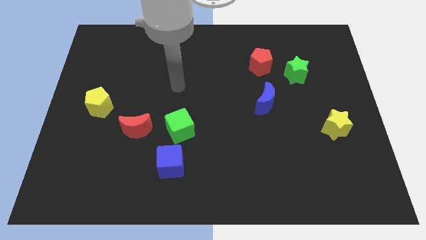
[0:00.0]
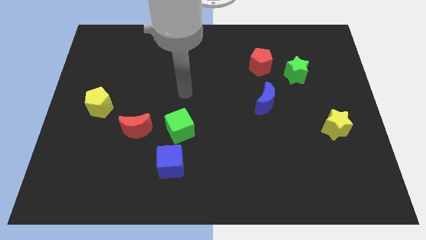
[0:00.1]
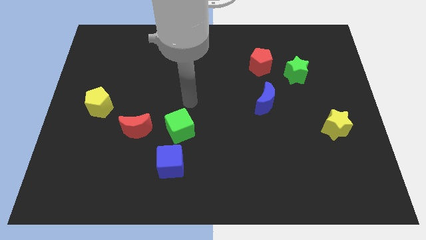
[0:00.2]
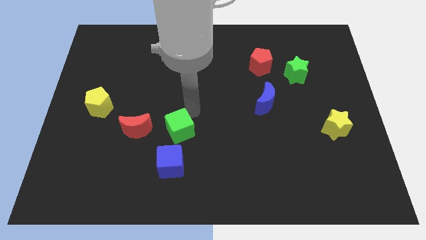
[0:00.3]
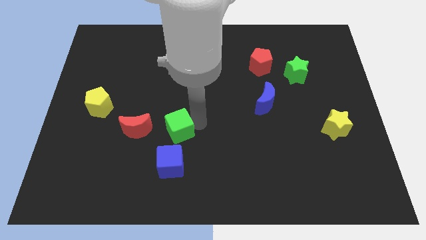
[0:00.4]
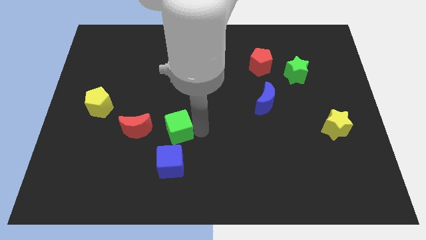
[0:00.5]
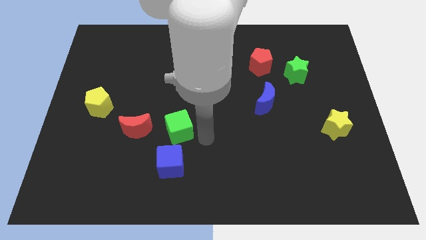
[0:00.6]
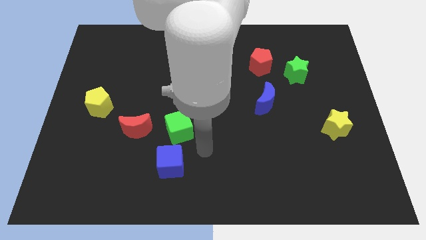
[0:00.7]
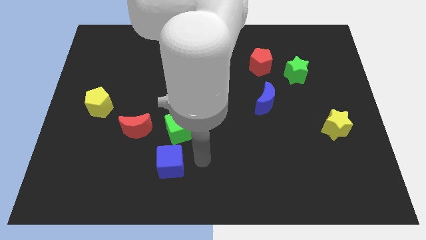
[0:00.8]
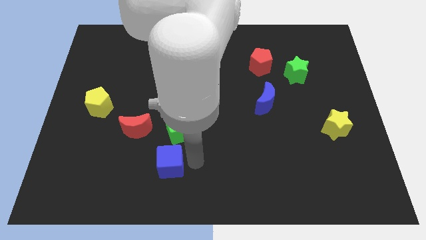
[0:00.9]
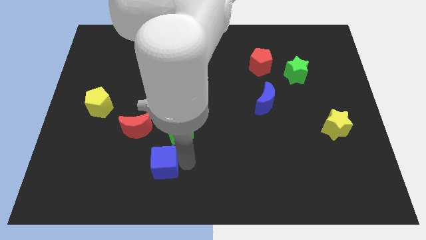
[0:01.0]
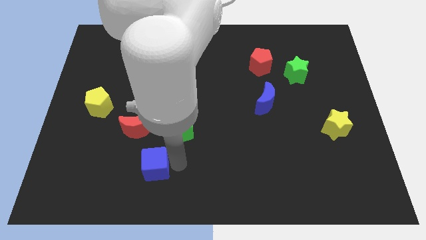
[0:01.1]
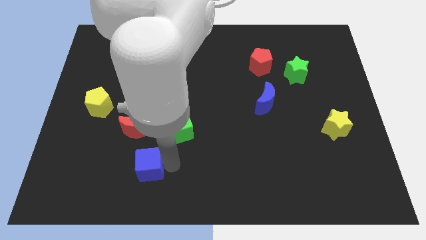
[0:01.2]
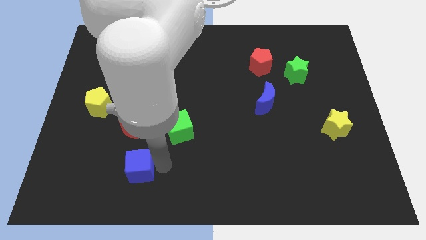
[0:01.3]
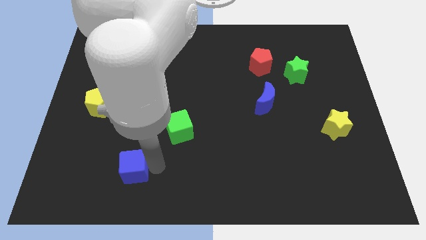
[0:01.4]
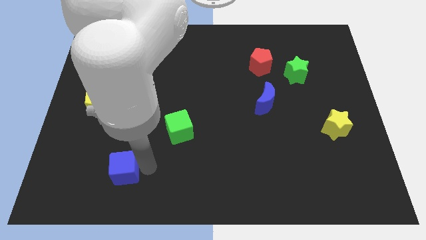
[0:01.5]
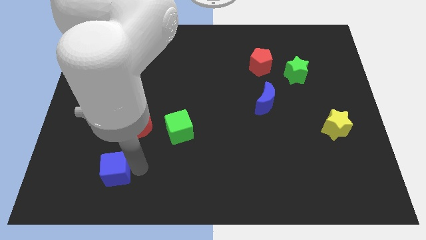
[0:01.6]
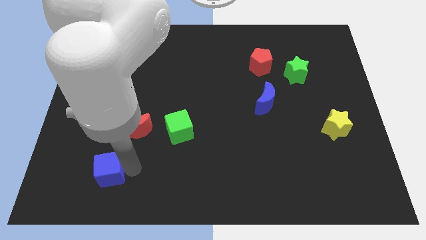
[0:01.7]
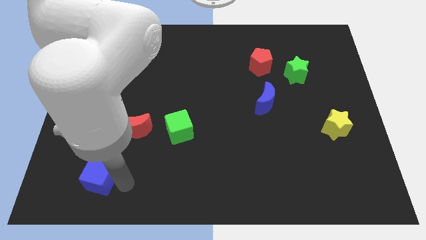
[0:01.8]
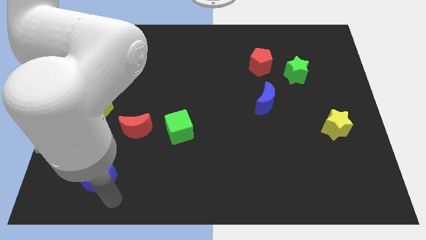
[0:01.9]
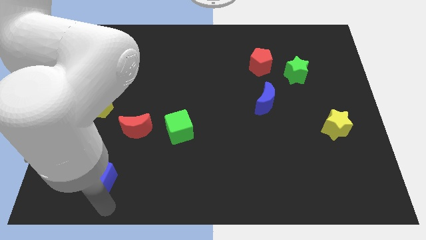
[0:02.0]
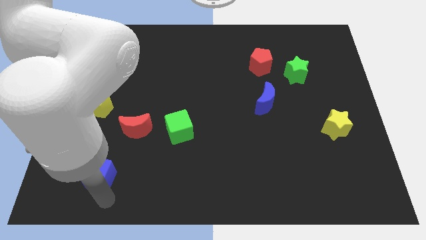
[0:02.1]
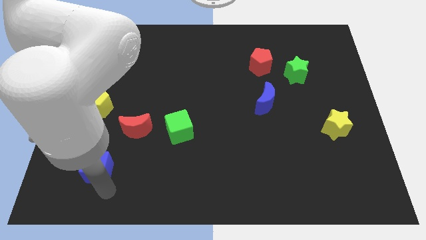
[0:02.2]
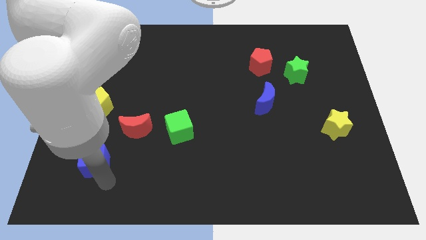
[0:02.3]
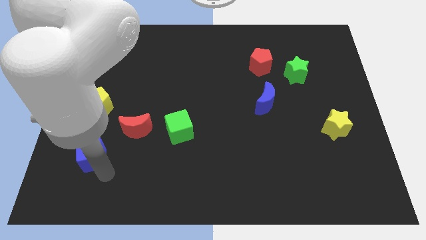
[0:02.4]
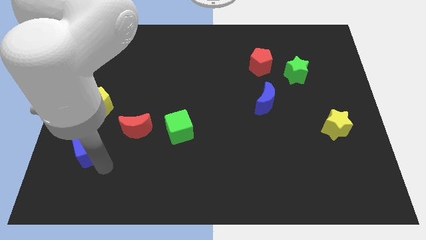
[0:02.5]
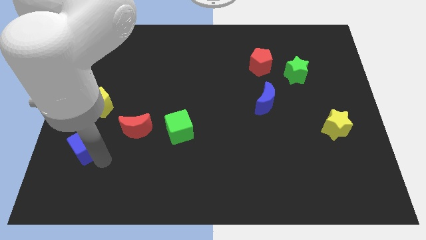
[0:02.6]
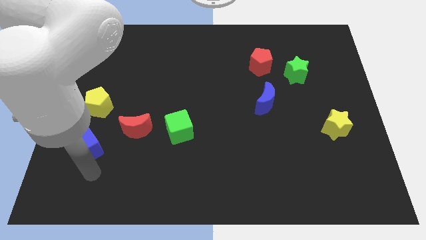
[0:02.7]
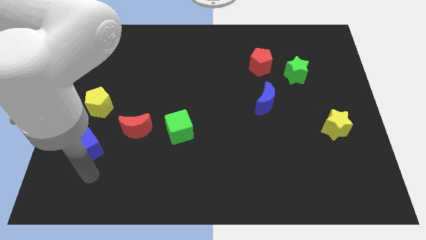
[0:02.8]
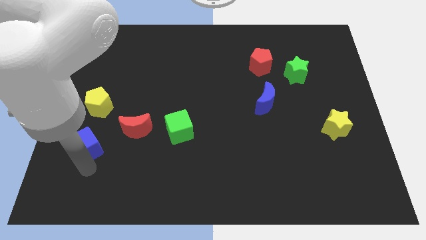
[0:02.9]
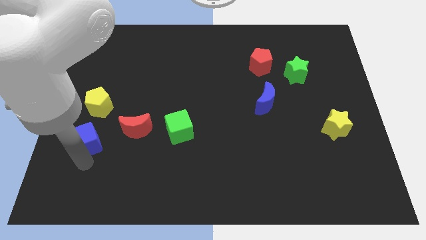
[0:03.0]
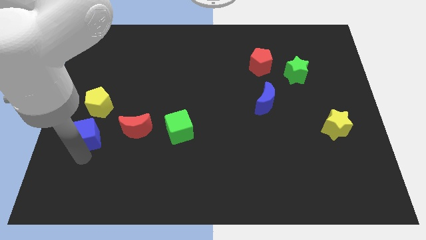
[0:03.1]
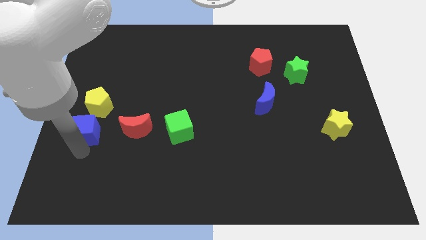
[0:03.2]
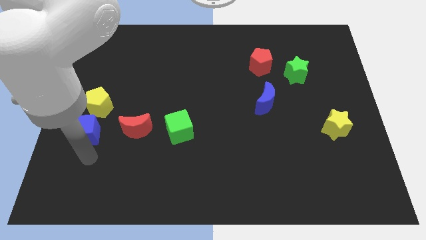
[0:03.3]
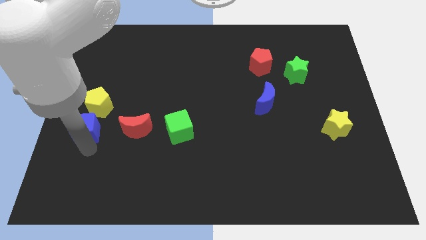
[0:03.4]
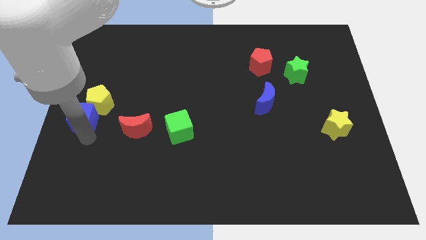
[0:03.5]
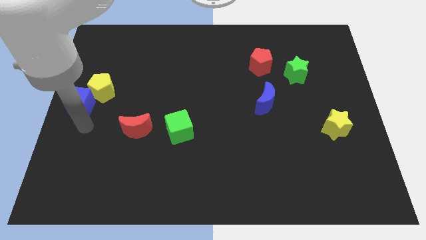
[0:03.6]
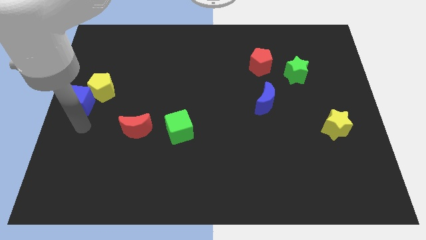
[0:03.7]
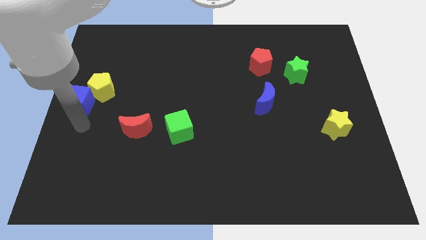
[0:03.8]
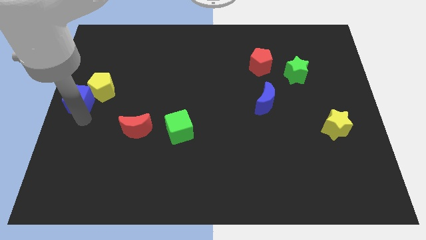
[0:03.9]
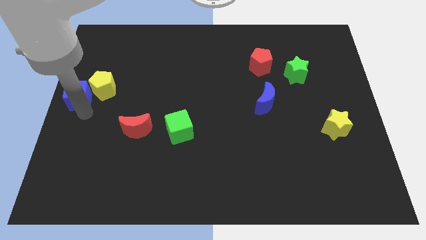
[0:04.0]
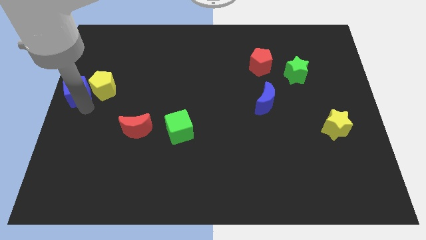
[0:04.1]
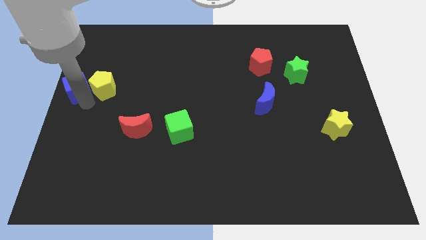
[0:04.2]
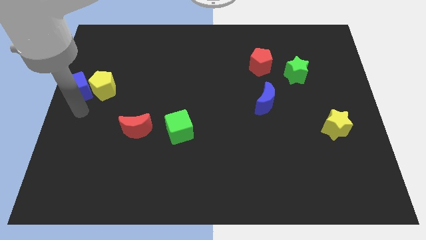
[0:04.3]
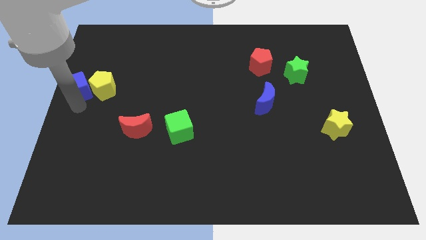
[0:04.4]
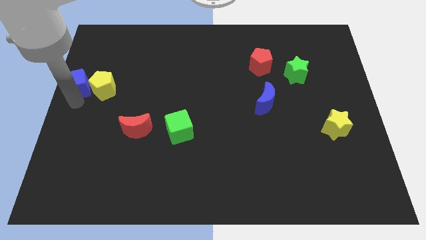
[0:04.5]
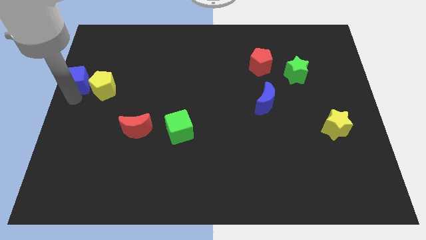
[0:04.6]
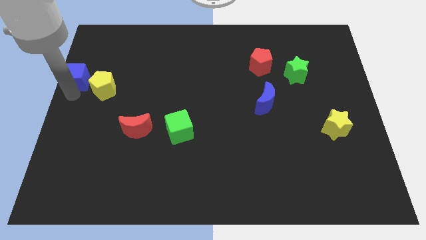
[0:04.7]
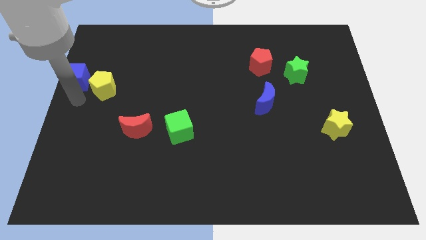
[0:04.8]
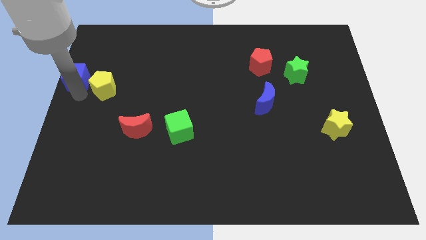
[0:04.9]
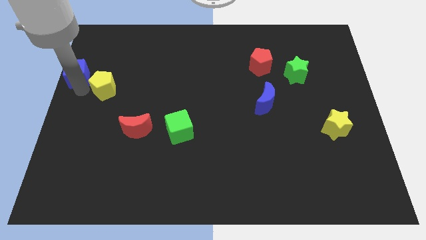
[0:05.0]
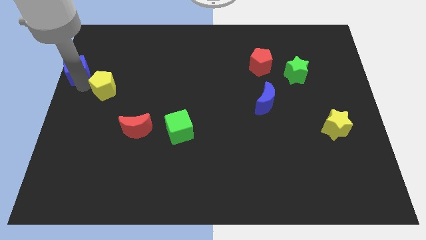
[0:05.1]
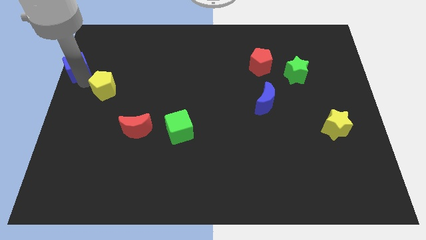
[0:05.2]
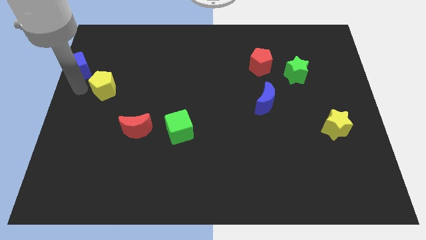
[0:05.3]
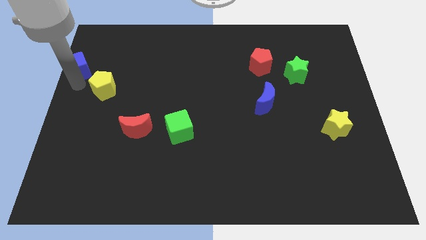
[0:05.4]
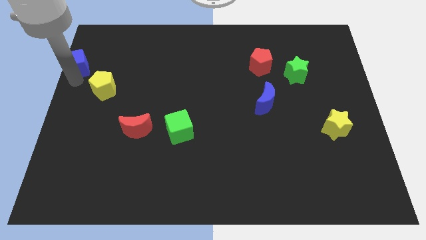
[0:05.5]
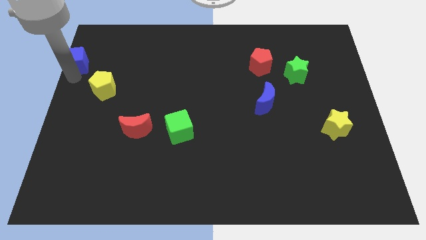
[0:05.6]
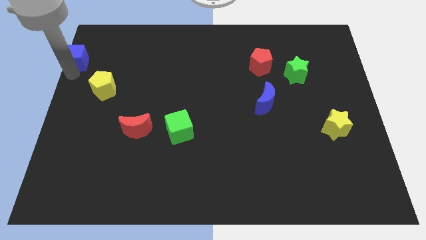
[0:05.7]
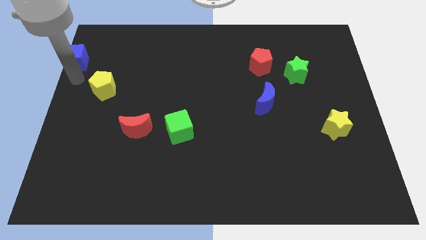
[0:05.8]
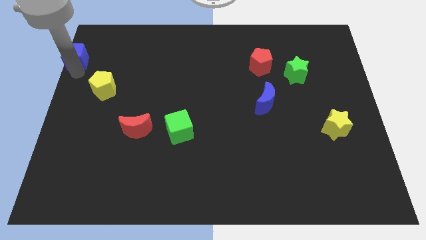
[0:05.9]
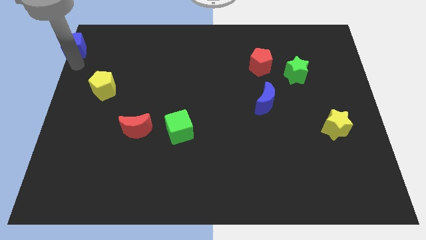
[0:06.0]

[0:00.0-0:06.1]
slide the blue cube to the top left of the board

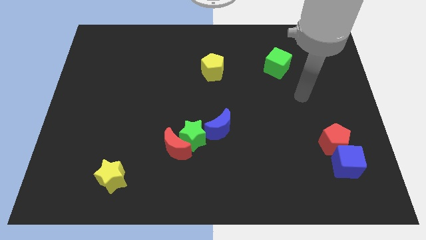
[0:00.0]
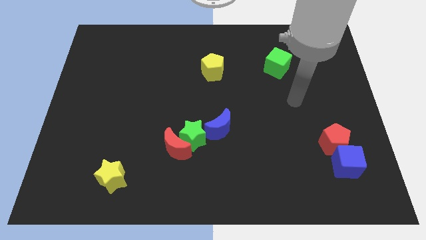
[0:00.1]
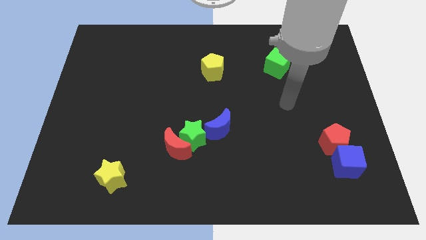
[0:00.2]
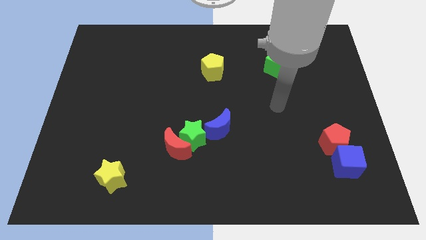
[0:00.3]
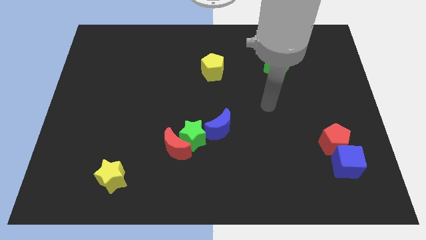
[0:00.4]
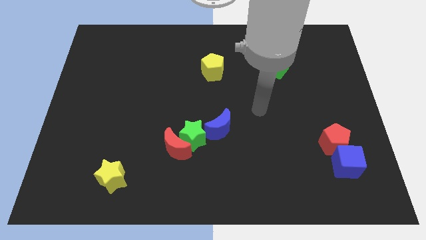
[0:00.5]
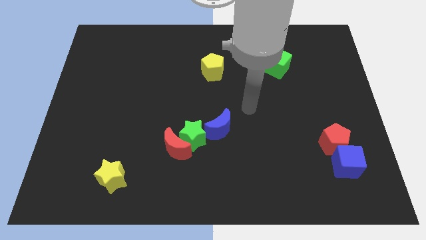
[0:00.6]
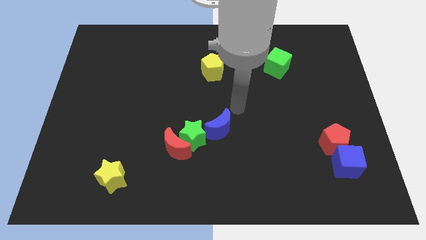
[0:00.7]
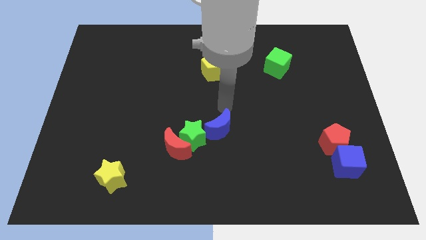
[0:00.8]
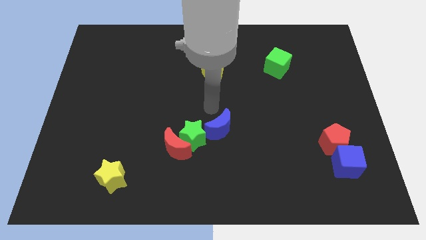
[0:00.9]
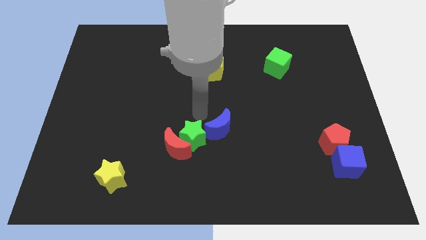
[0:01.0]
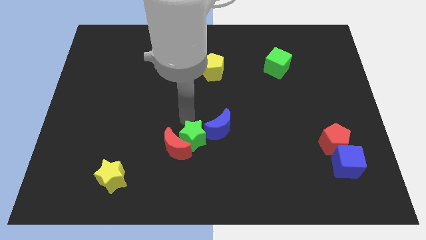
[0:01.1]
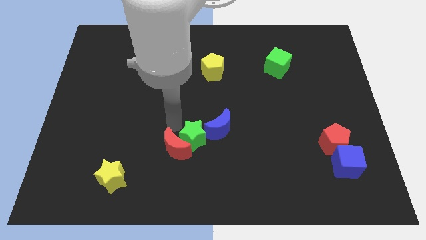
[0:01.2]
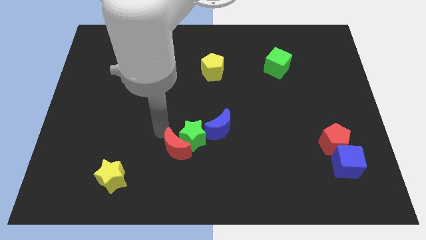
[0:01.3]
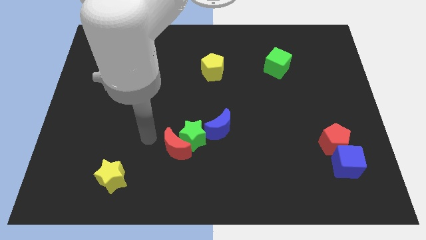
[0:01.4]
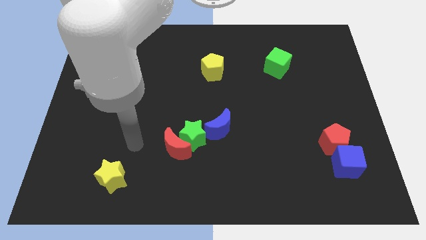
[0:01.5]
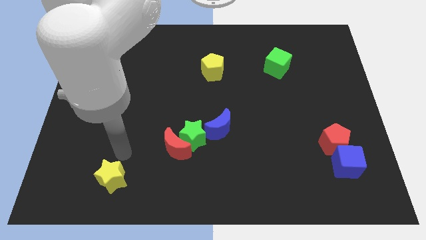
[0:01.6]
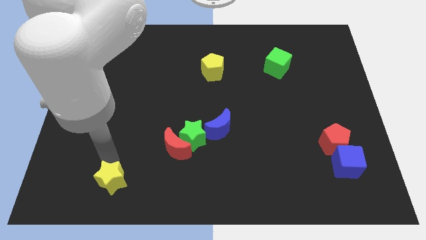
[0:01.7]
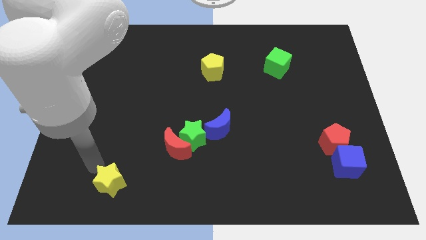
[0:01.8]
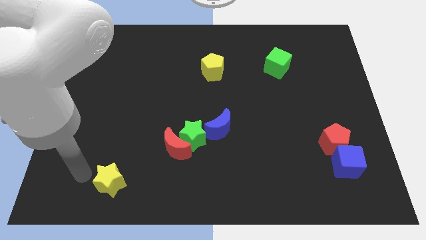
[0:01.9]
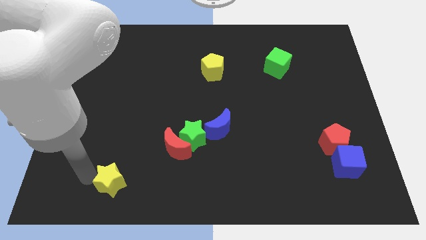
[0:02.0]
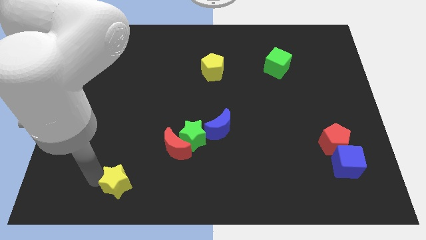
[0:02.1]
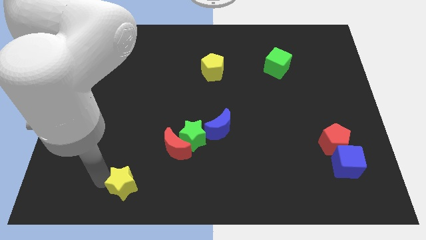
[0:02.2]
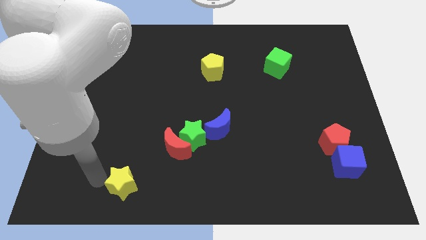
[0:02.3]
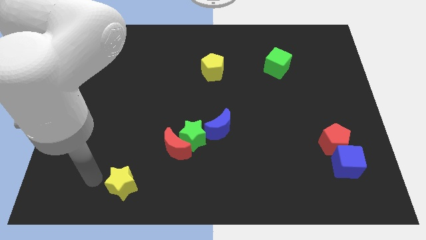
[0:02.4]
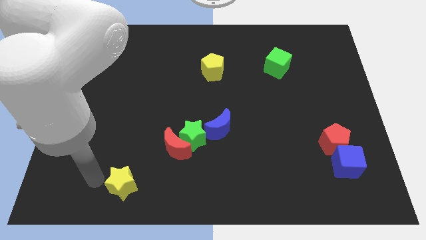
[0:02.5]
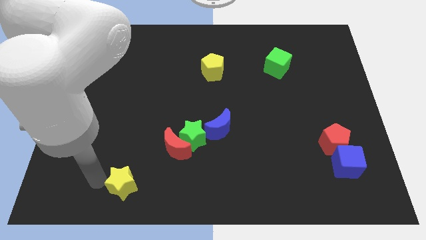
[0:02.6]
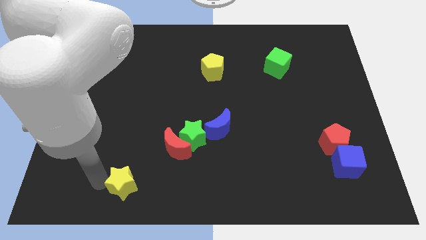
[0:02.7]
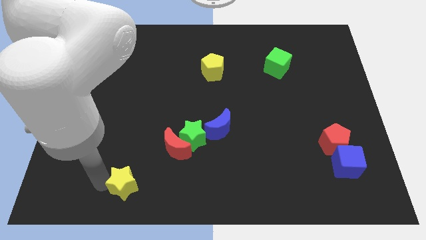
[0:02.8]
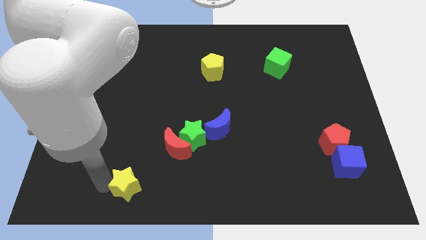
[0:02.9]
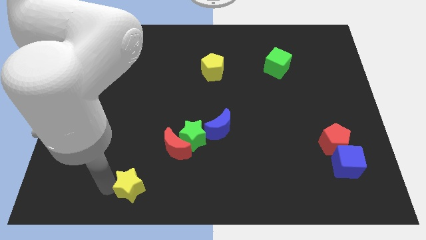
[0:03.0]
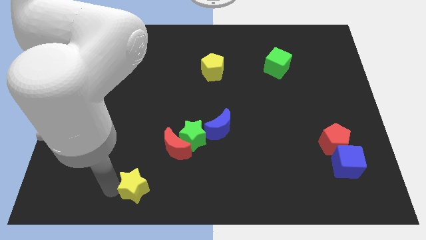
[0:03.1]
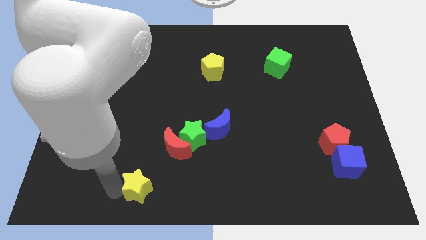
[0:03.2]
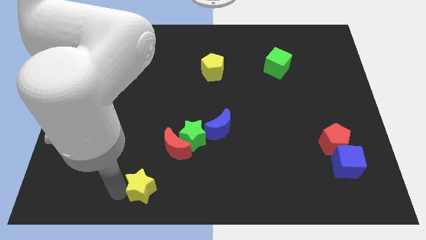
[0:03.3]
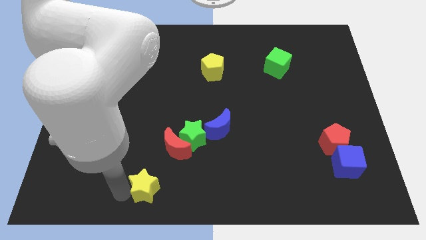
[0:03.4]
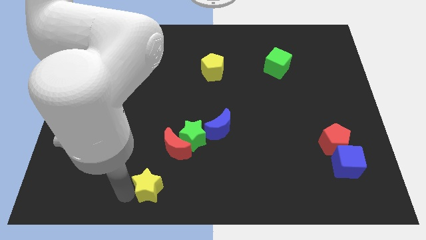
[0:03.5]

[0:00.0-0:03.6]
put the yellow star to the bottom
